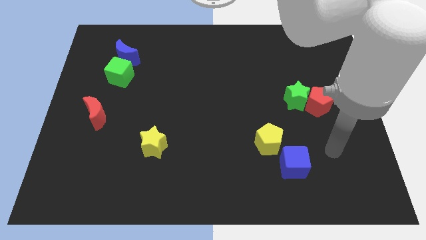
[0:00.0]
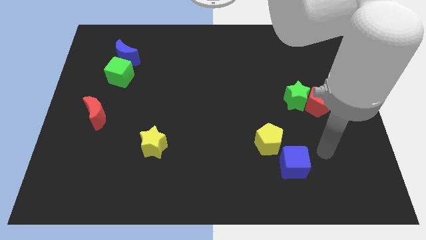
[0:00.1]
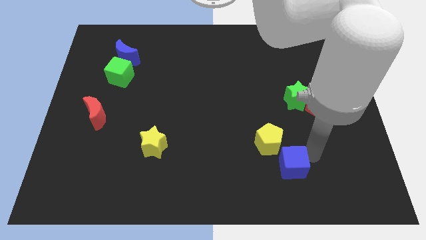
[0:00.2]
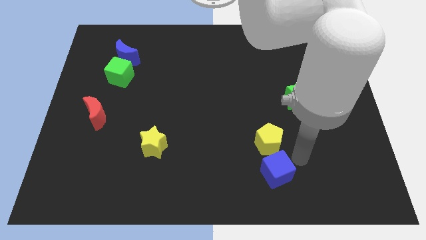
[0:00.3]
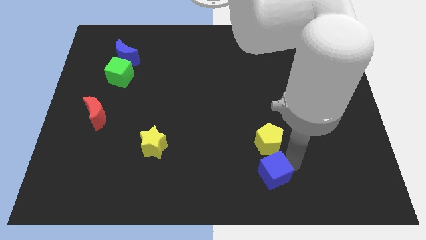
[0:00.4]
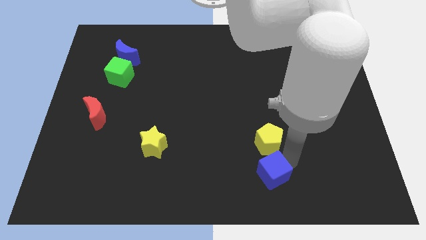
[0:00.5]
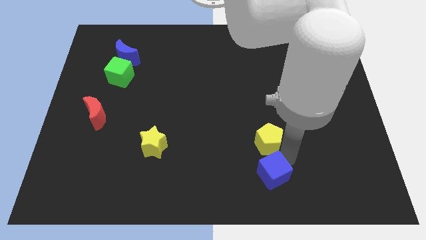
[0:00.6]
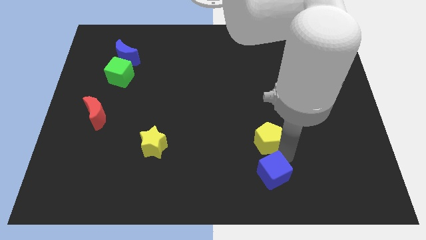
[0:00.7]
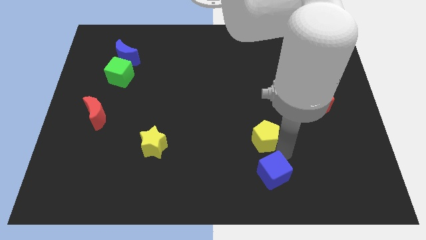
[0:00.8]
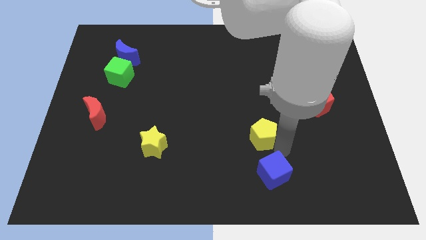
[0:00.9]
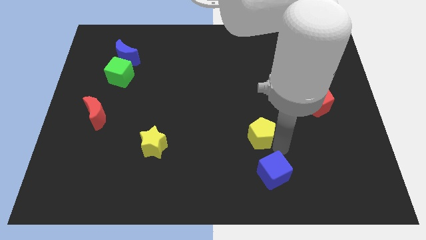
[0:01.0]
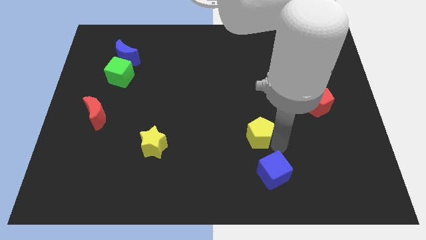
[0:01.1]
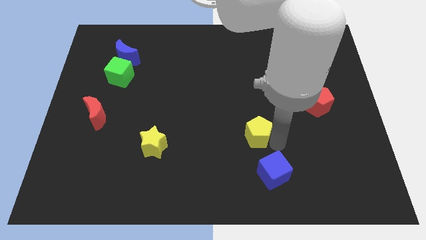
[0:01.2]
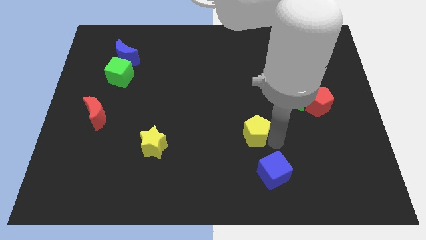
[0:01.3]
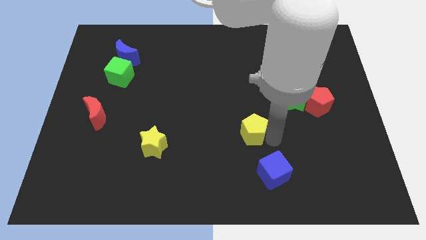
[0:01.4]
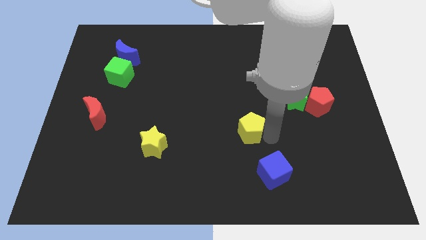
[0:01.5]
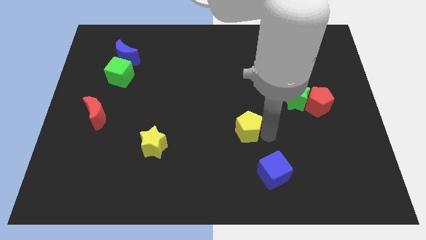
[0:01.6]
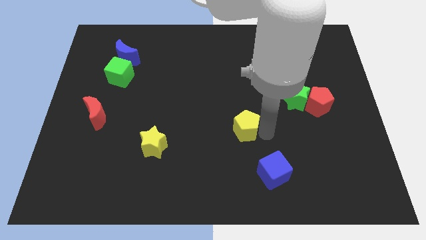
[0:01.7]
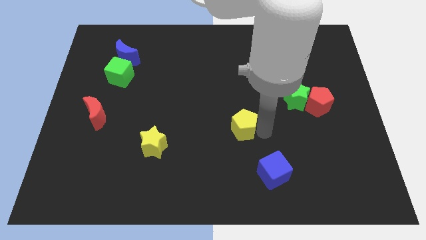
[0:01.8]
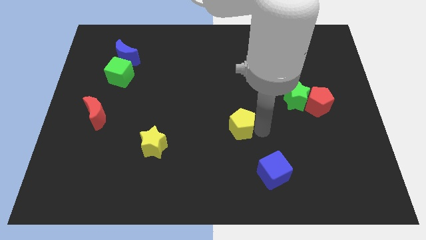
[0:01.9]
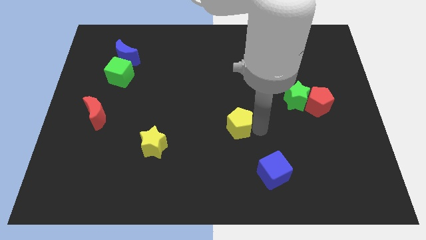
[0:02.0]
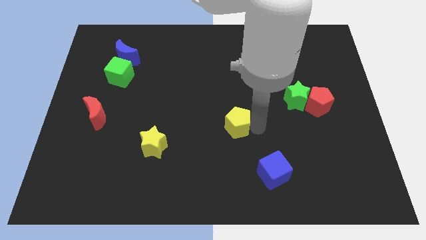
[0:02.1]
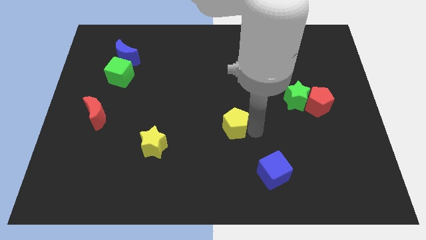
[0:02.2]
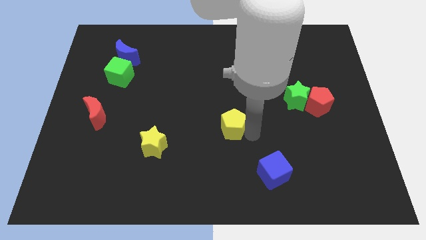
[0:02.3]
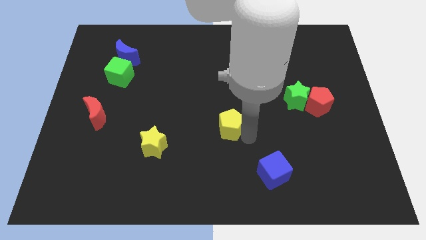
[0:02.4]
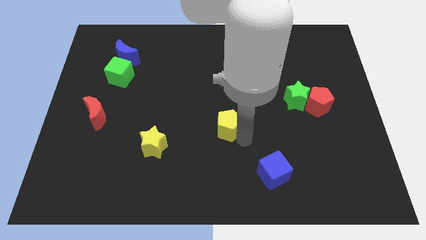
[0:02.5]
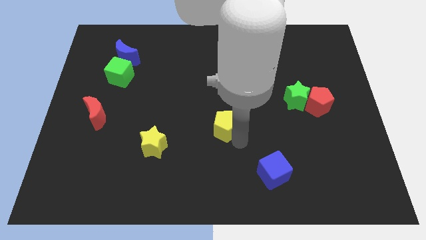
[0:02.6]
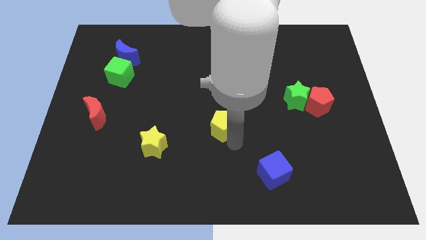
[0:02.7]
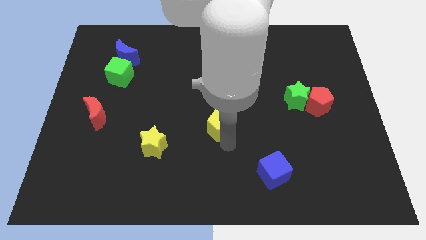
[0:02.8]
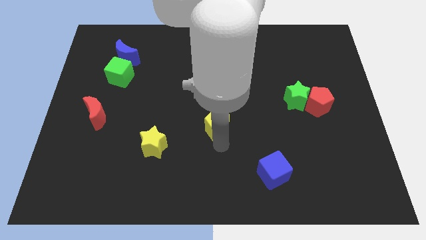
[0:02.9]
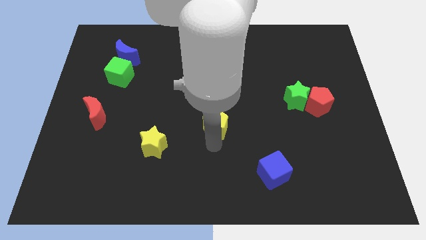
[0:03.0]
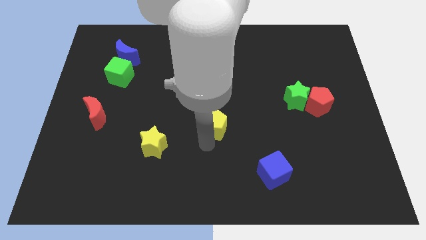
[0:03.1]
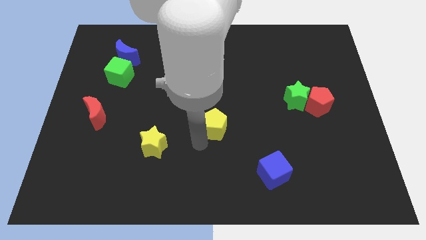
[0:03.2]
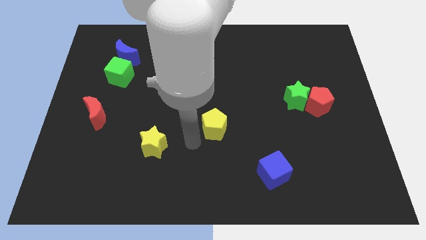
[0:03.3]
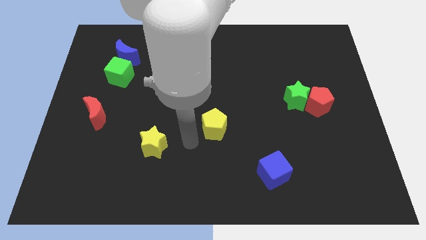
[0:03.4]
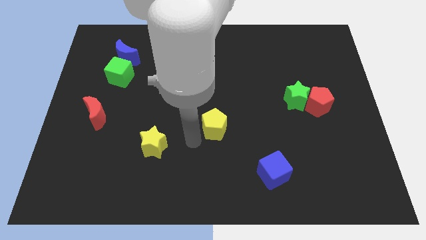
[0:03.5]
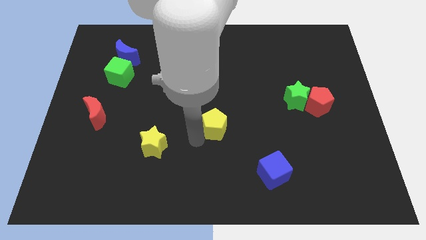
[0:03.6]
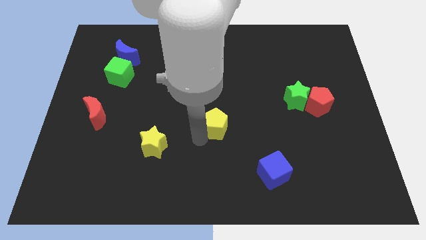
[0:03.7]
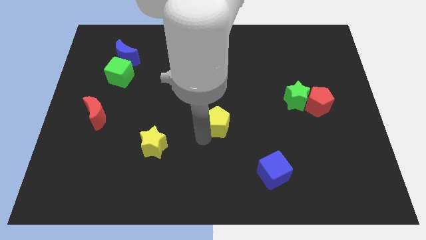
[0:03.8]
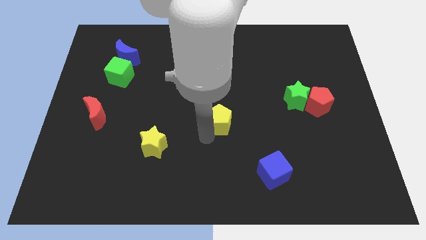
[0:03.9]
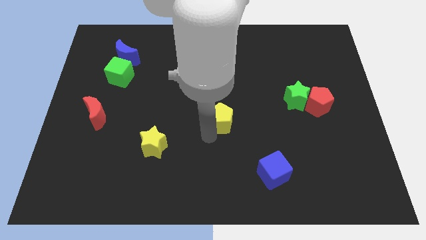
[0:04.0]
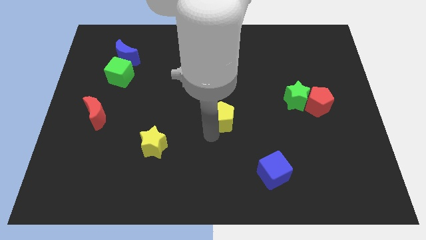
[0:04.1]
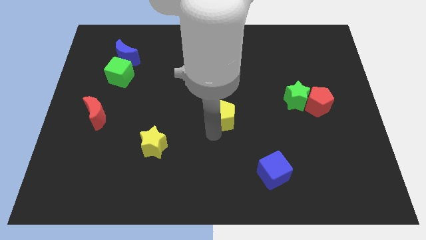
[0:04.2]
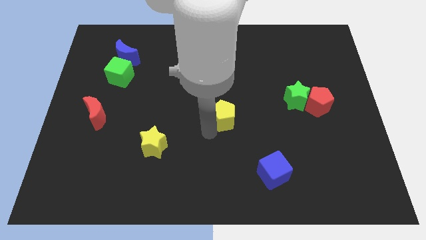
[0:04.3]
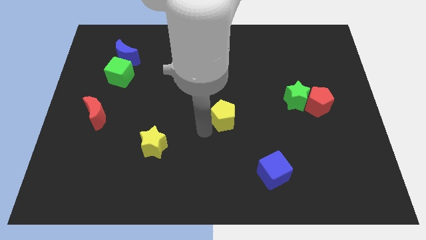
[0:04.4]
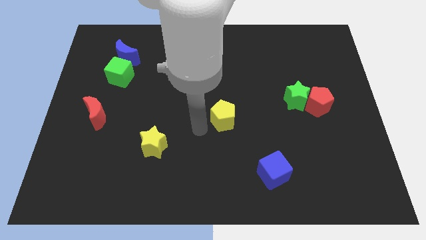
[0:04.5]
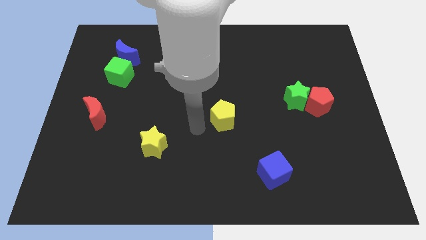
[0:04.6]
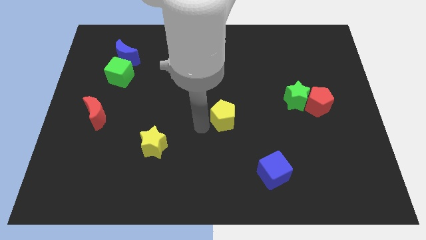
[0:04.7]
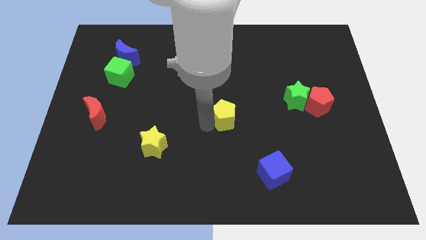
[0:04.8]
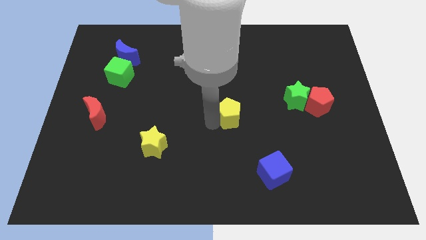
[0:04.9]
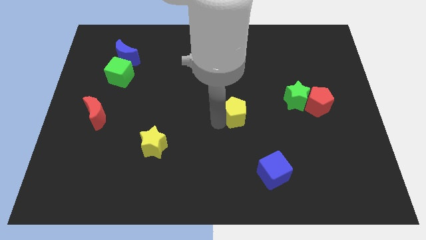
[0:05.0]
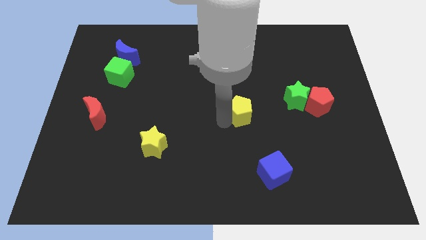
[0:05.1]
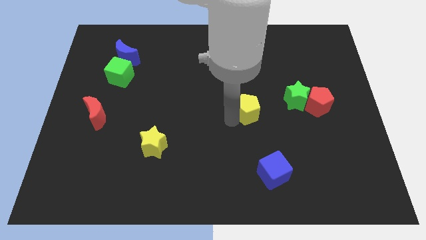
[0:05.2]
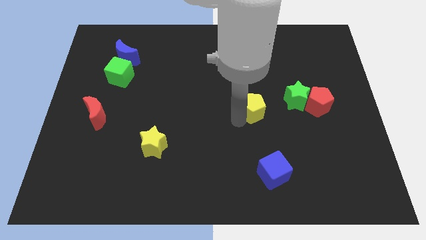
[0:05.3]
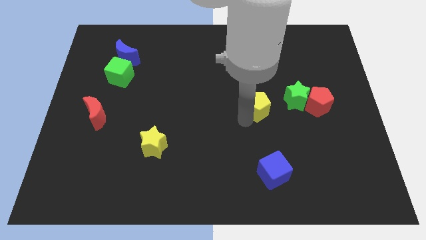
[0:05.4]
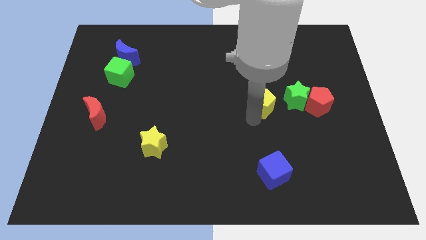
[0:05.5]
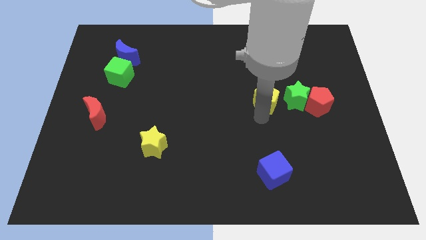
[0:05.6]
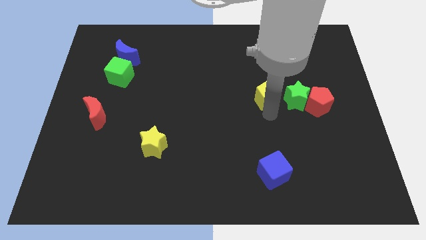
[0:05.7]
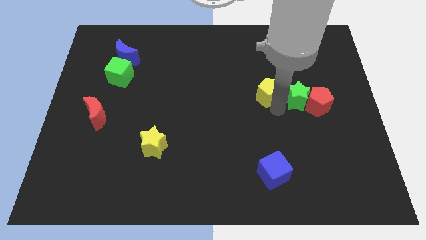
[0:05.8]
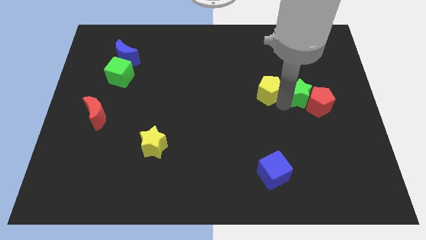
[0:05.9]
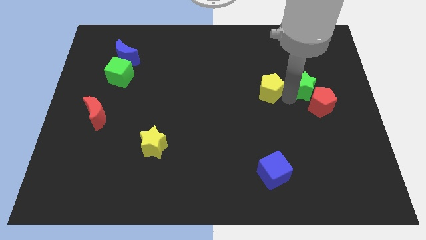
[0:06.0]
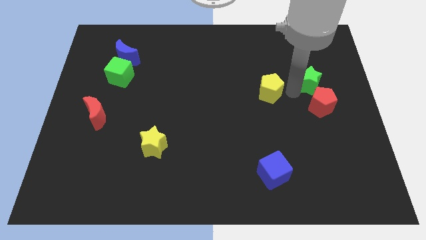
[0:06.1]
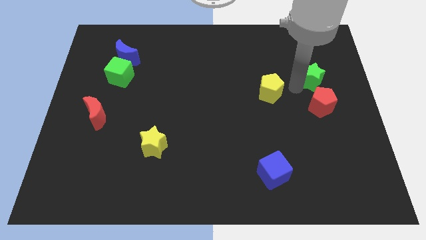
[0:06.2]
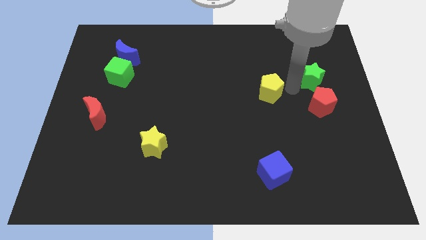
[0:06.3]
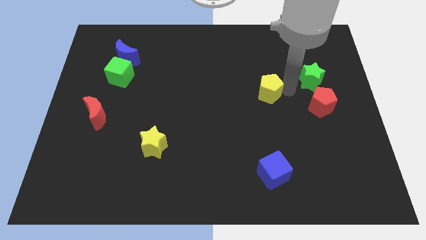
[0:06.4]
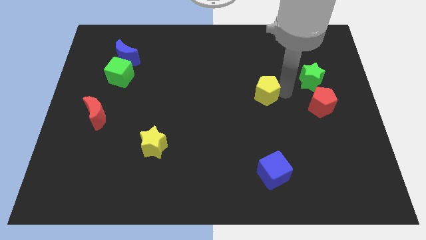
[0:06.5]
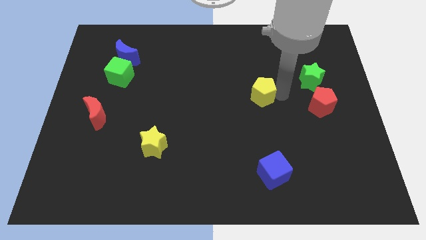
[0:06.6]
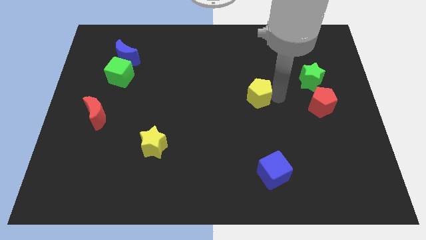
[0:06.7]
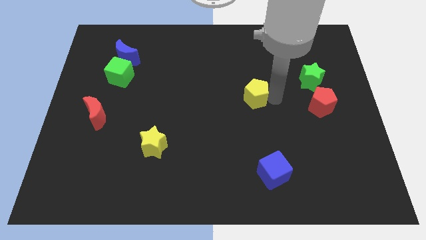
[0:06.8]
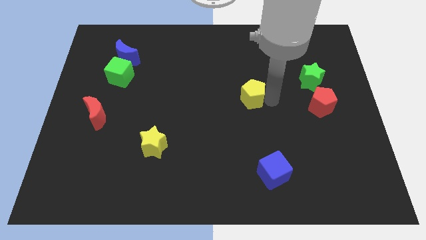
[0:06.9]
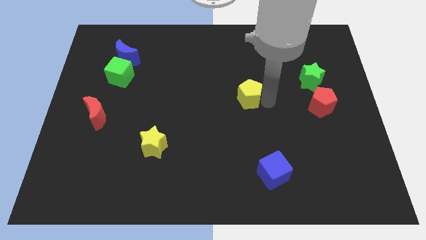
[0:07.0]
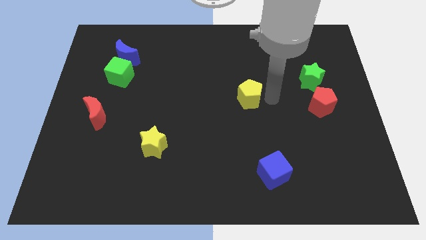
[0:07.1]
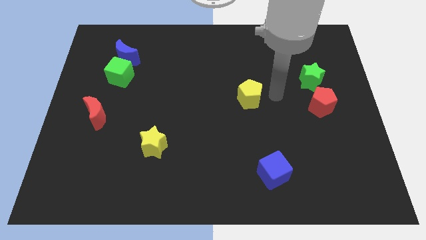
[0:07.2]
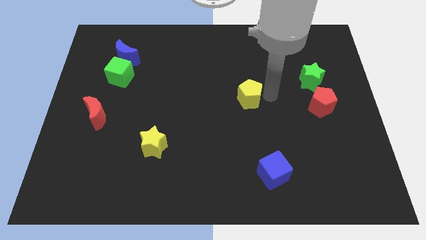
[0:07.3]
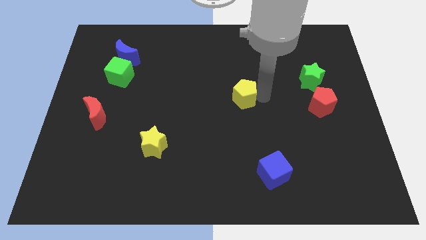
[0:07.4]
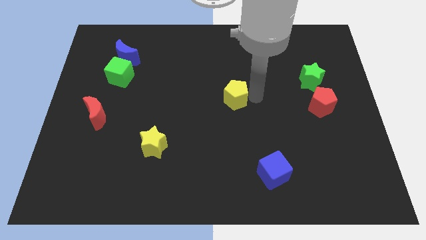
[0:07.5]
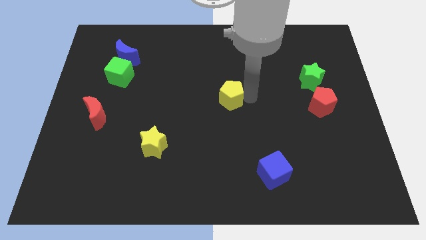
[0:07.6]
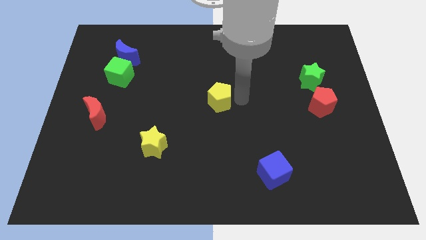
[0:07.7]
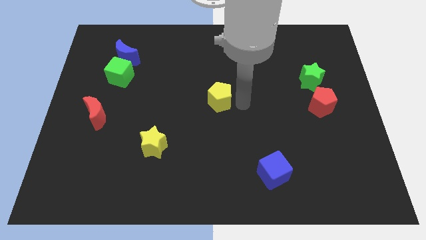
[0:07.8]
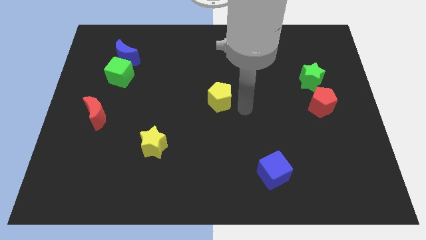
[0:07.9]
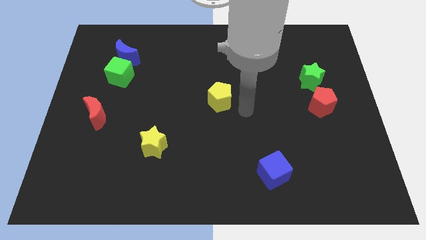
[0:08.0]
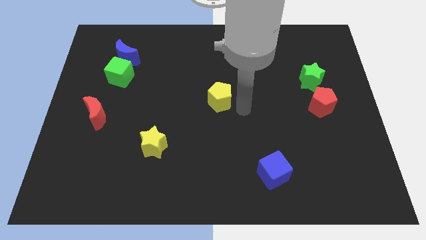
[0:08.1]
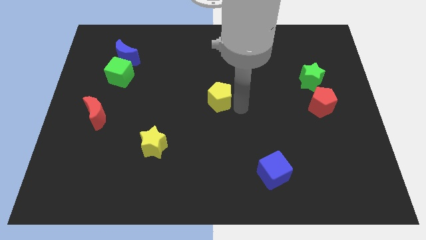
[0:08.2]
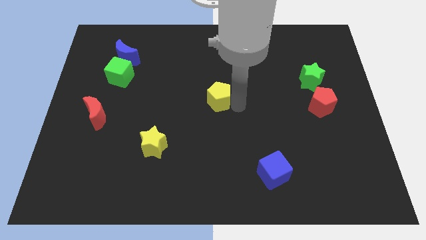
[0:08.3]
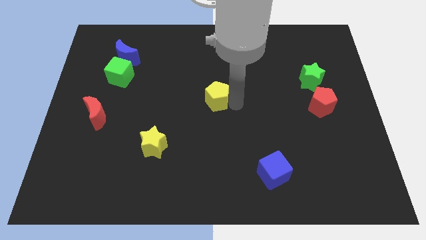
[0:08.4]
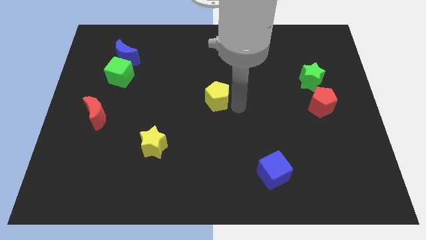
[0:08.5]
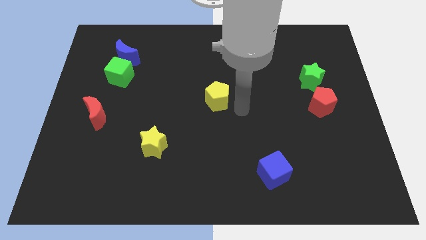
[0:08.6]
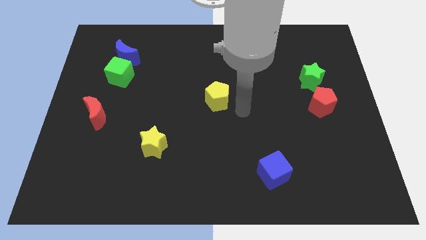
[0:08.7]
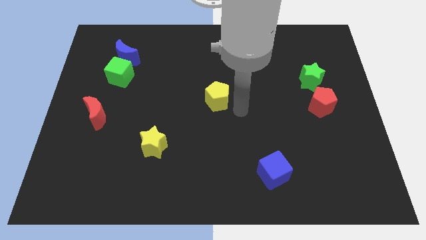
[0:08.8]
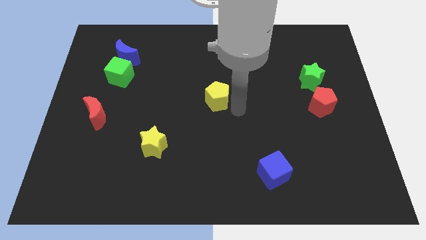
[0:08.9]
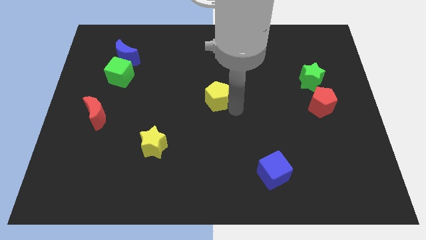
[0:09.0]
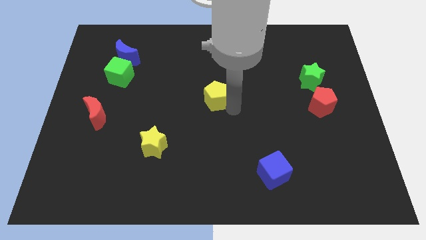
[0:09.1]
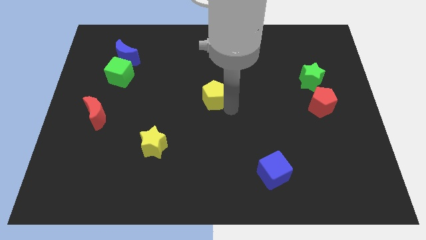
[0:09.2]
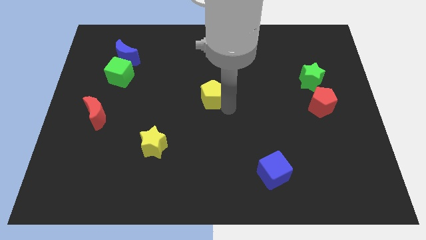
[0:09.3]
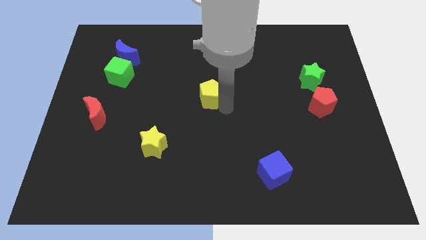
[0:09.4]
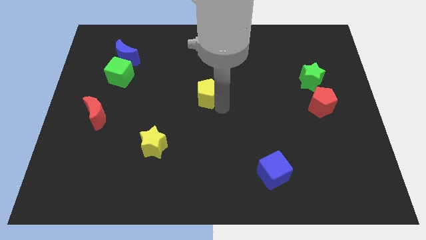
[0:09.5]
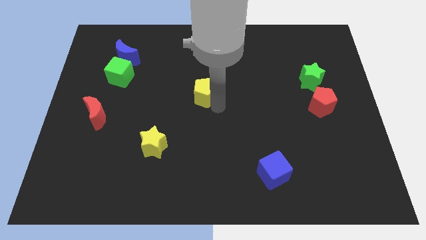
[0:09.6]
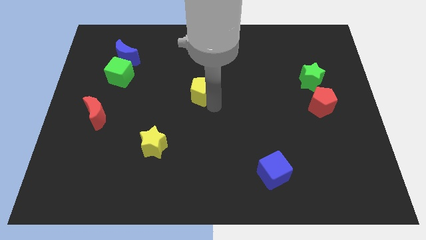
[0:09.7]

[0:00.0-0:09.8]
move the yellow pentagon up and then left
